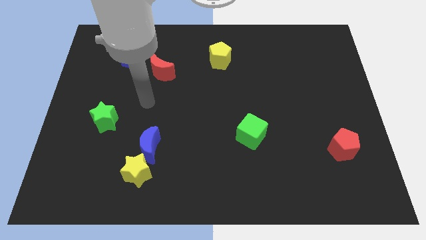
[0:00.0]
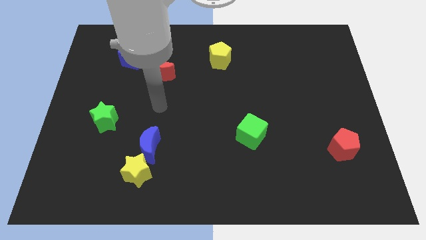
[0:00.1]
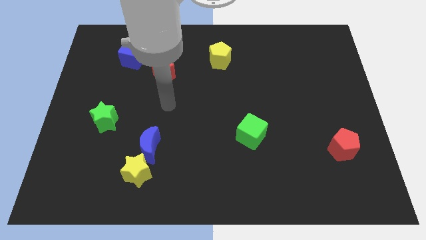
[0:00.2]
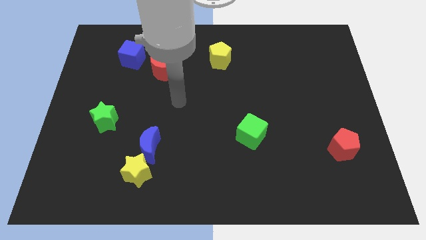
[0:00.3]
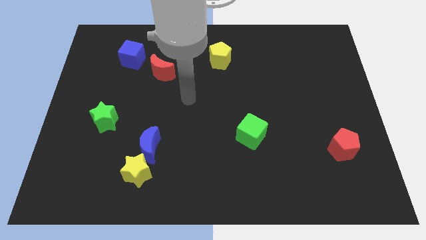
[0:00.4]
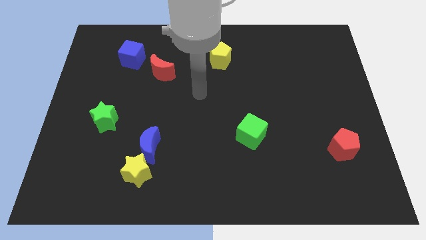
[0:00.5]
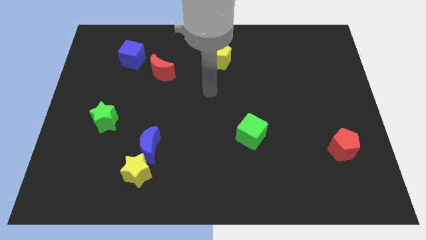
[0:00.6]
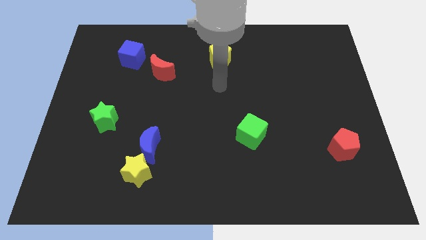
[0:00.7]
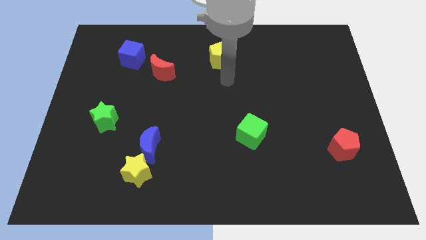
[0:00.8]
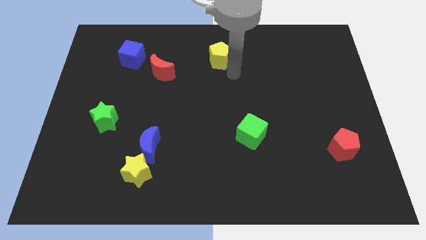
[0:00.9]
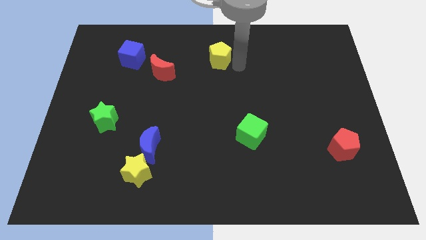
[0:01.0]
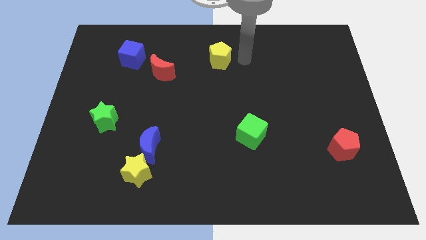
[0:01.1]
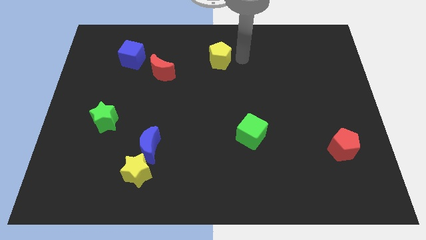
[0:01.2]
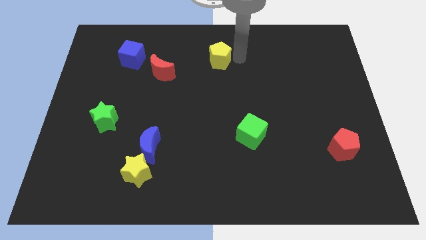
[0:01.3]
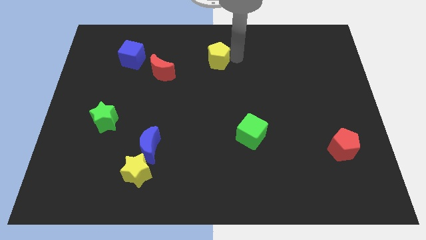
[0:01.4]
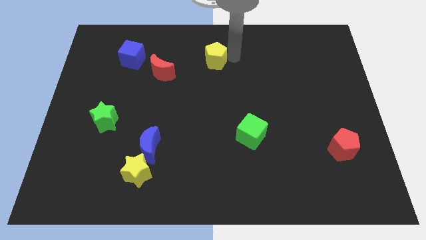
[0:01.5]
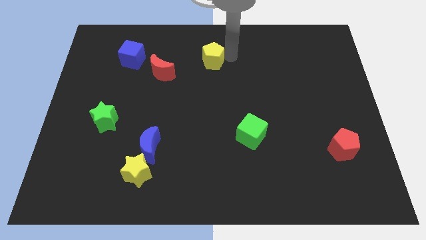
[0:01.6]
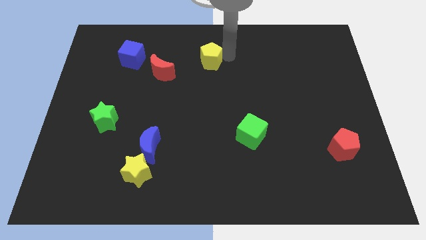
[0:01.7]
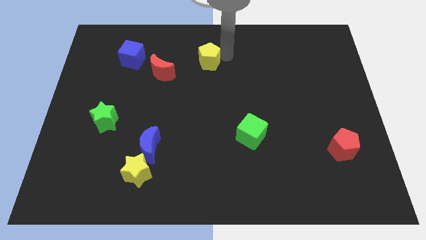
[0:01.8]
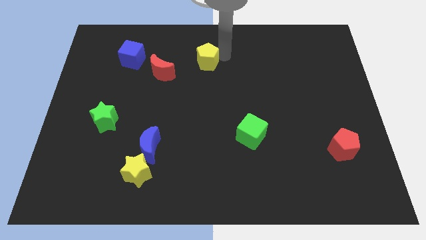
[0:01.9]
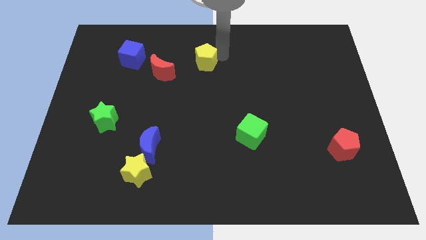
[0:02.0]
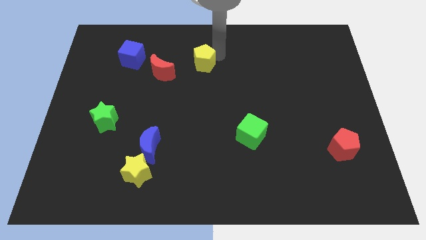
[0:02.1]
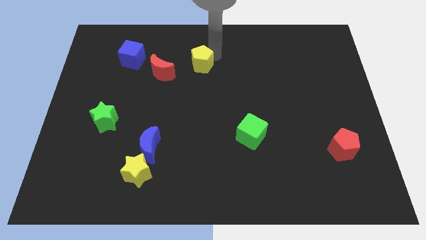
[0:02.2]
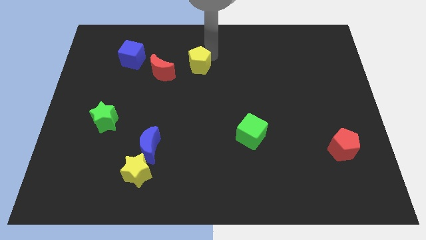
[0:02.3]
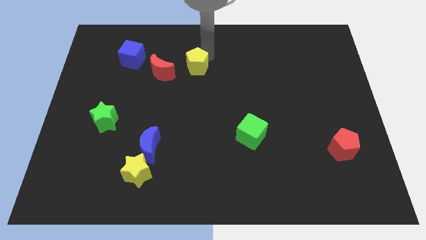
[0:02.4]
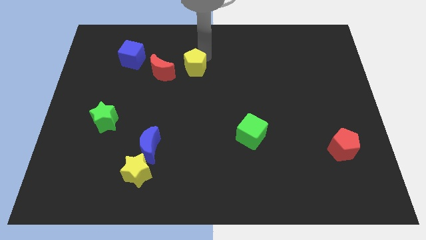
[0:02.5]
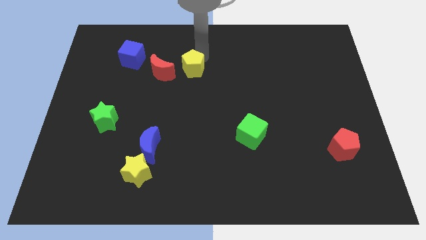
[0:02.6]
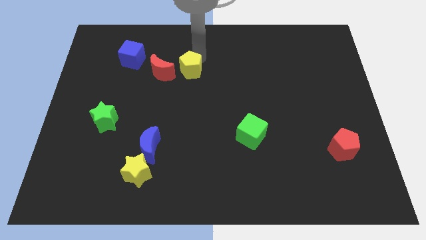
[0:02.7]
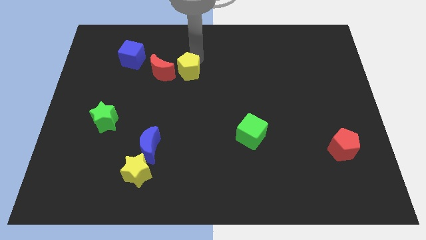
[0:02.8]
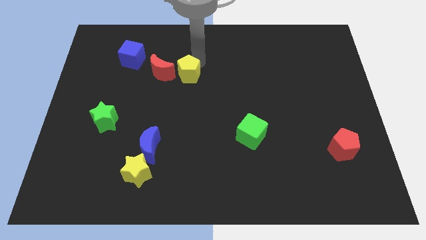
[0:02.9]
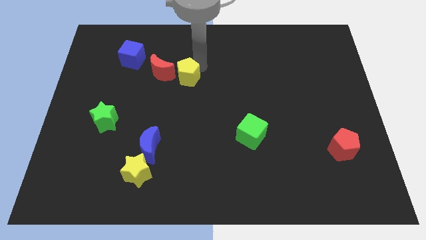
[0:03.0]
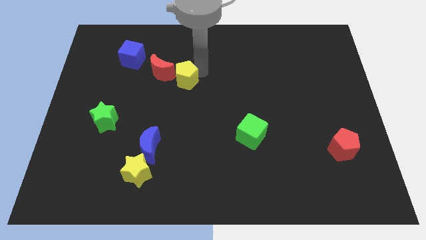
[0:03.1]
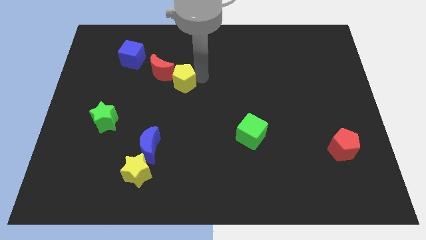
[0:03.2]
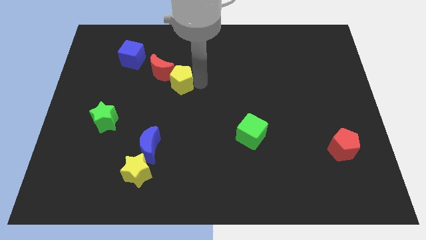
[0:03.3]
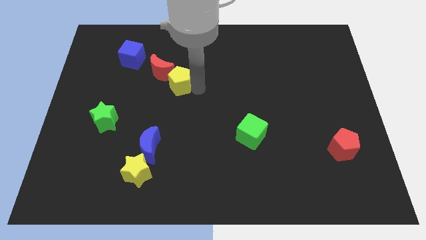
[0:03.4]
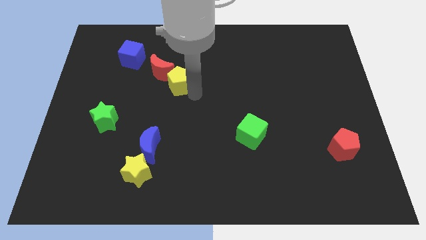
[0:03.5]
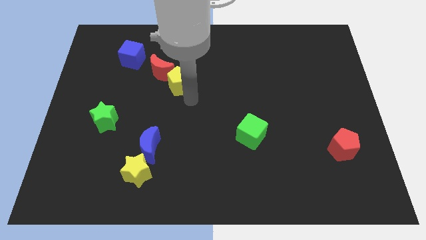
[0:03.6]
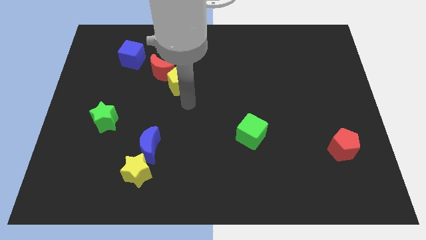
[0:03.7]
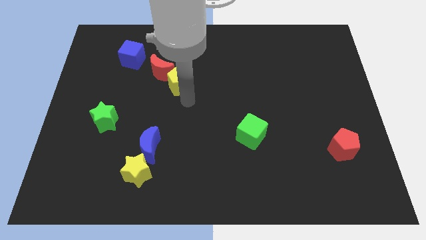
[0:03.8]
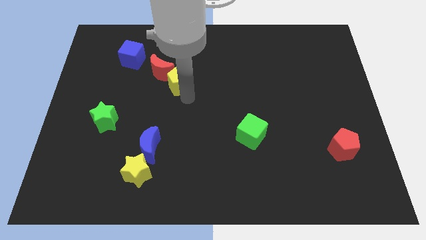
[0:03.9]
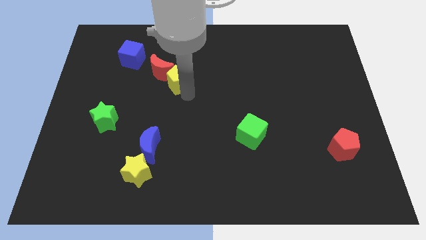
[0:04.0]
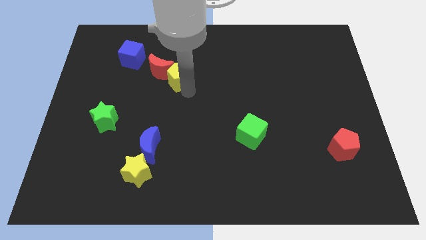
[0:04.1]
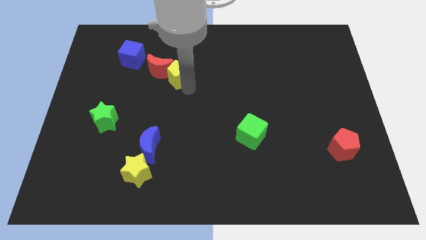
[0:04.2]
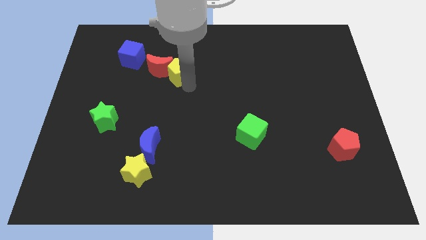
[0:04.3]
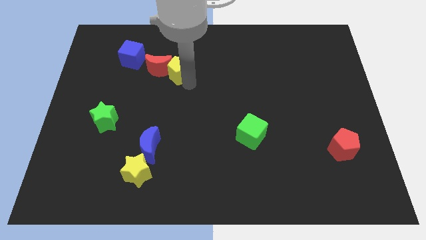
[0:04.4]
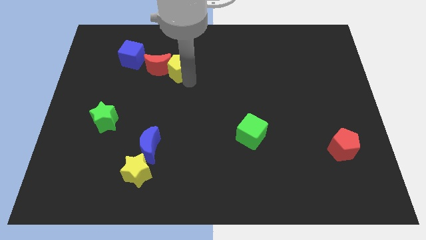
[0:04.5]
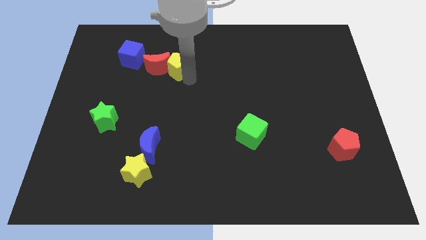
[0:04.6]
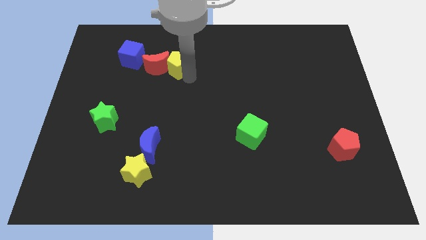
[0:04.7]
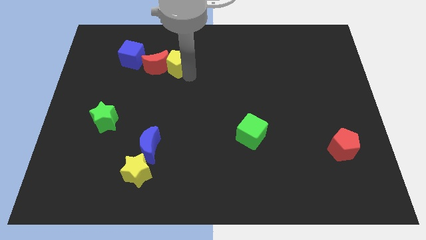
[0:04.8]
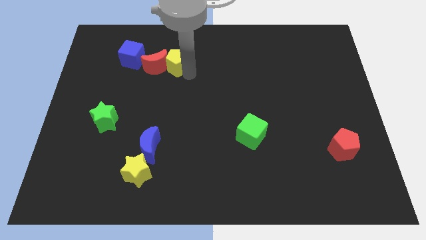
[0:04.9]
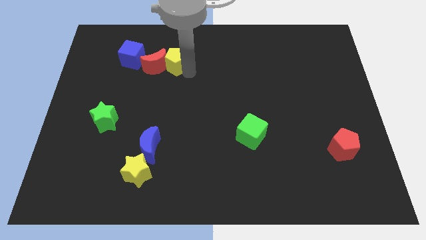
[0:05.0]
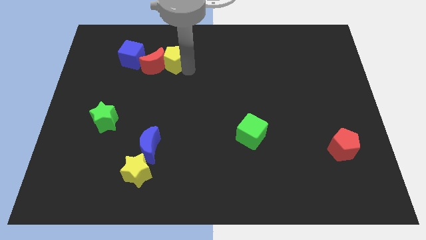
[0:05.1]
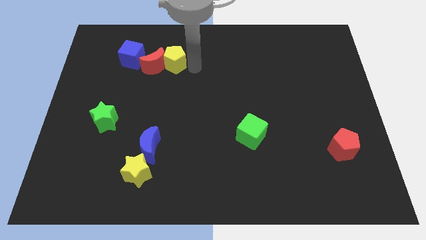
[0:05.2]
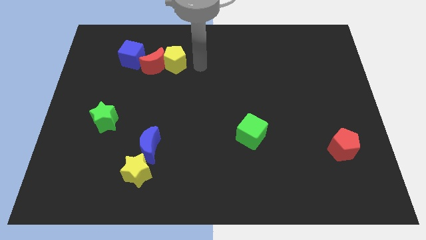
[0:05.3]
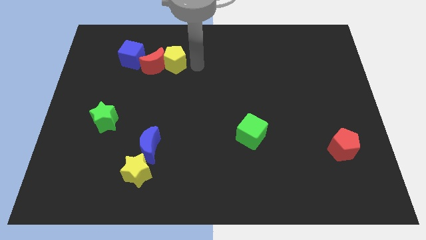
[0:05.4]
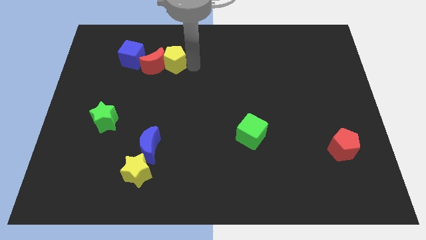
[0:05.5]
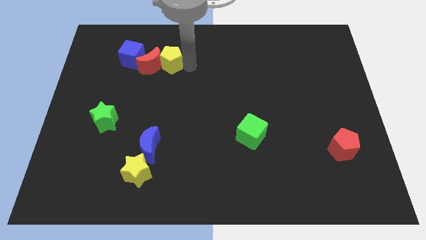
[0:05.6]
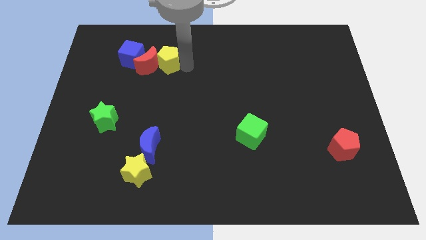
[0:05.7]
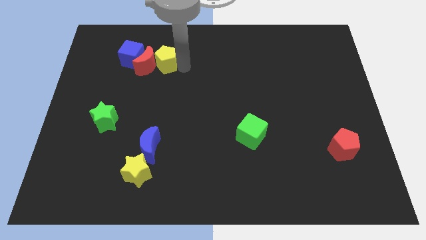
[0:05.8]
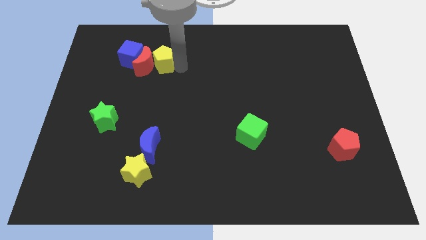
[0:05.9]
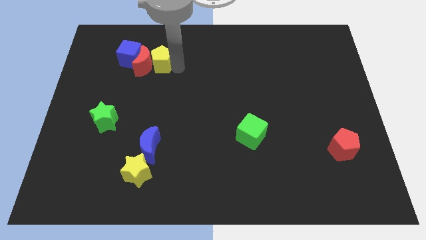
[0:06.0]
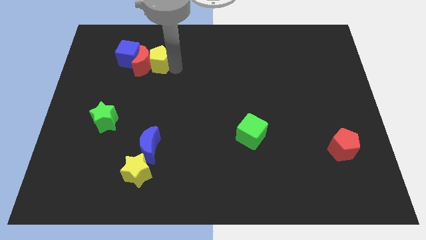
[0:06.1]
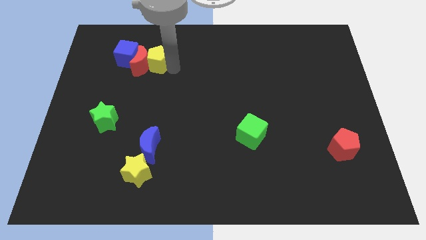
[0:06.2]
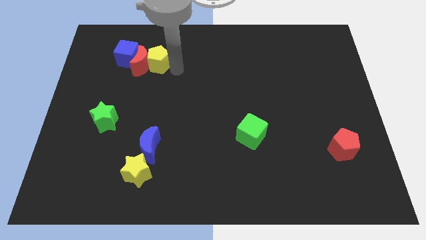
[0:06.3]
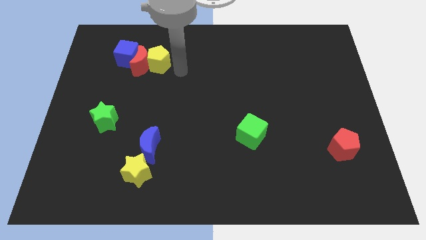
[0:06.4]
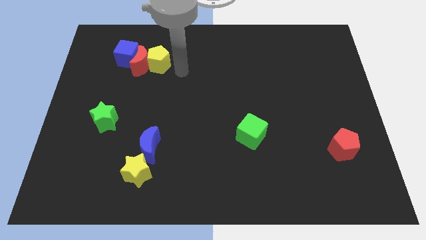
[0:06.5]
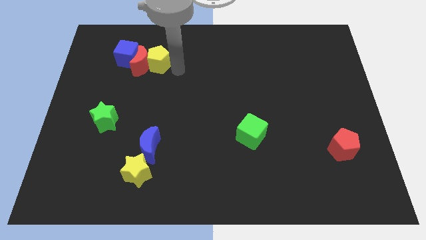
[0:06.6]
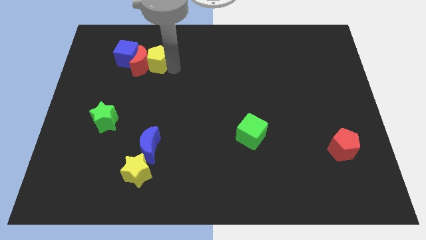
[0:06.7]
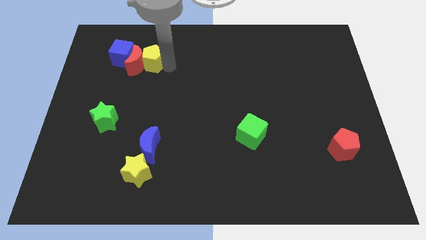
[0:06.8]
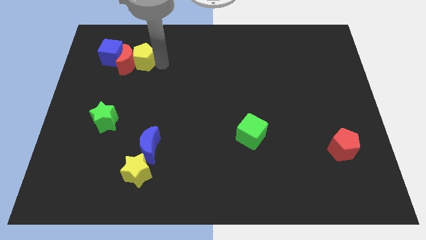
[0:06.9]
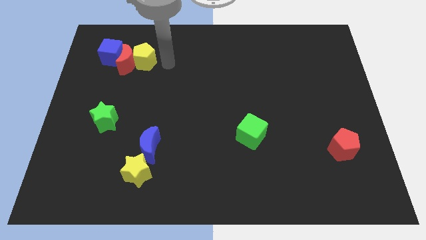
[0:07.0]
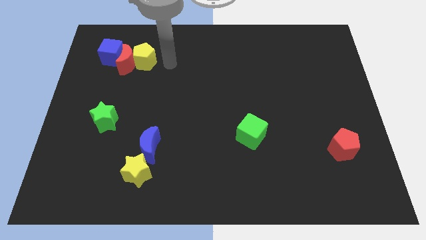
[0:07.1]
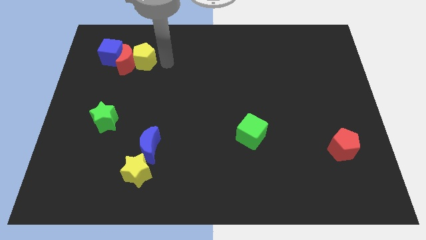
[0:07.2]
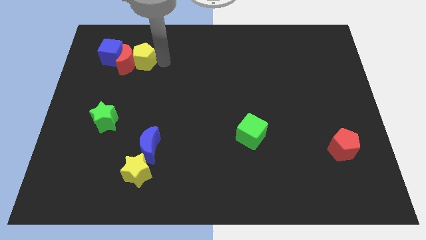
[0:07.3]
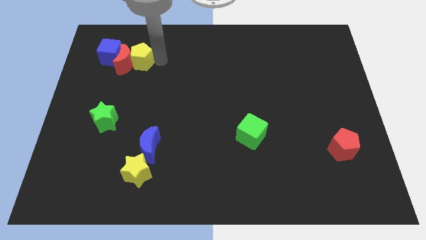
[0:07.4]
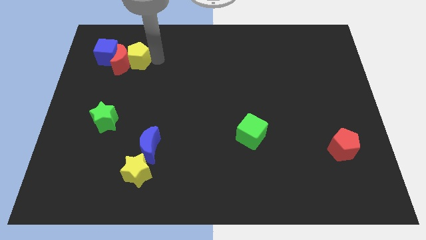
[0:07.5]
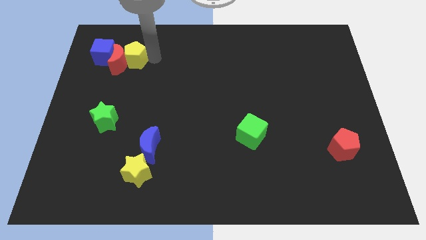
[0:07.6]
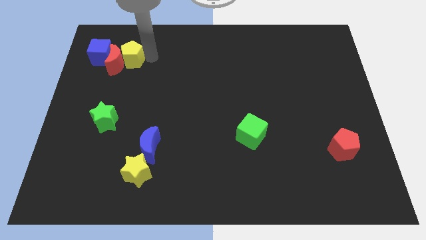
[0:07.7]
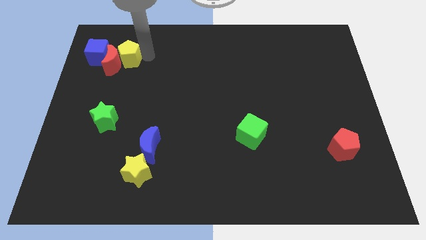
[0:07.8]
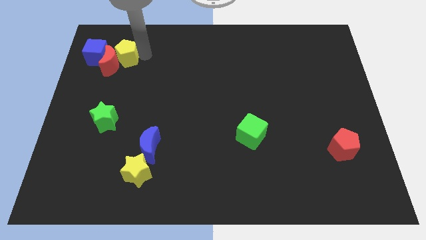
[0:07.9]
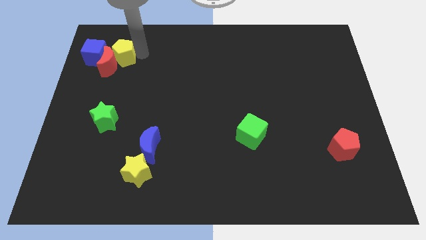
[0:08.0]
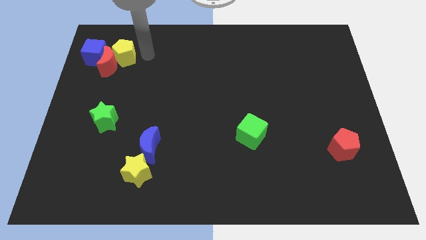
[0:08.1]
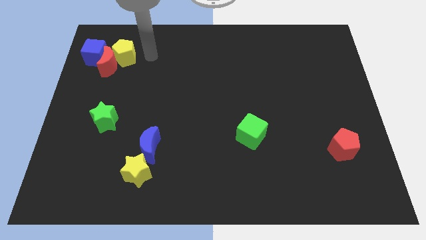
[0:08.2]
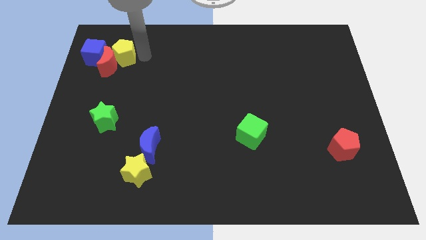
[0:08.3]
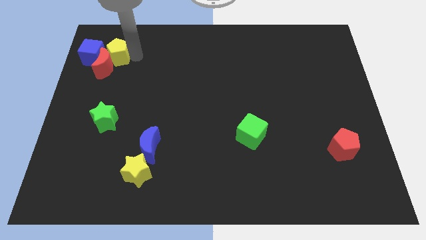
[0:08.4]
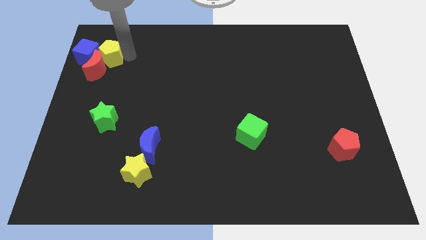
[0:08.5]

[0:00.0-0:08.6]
push the yellow pentagon towards the blue cube
